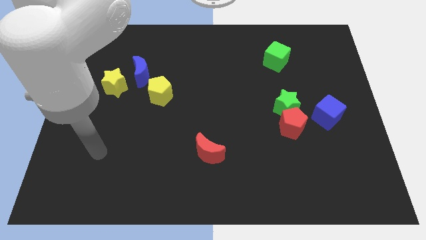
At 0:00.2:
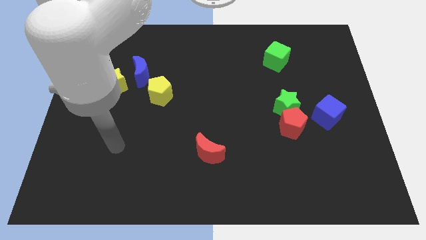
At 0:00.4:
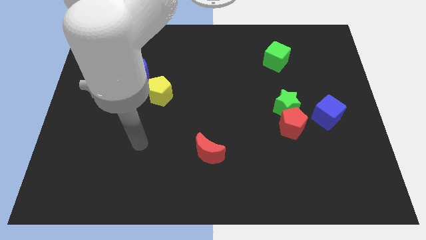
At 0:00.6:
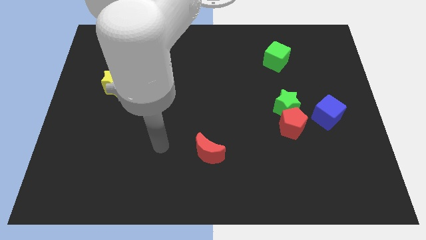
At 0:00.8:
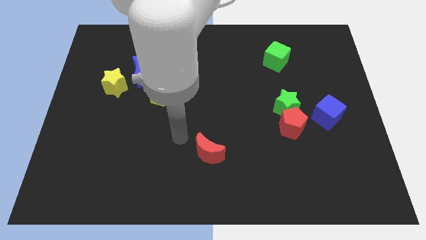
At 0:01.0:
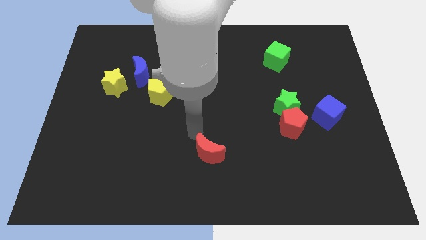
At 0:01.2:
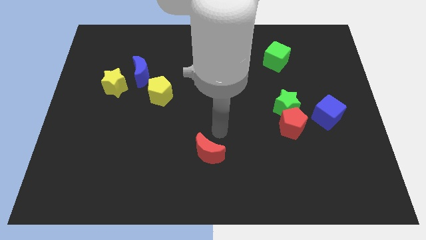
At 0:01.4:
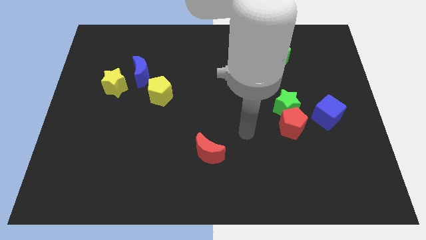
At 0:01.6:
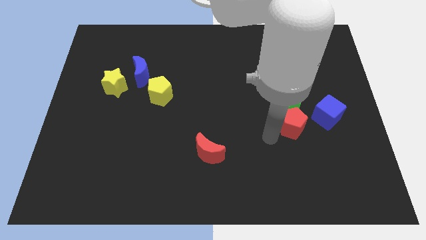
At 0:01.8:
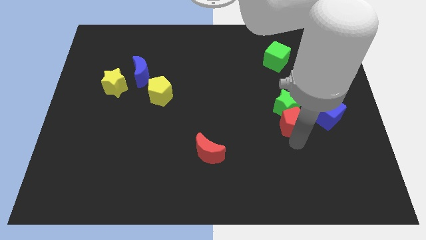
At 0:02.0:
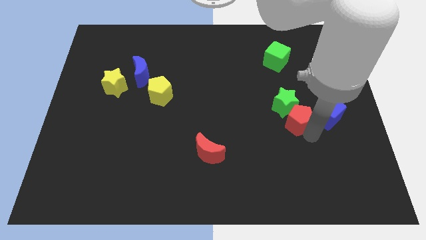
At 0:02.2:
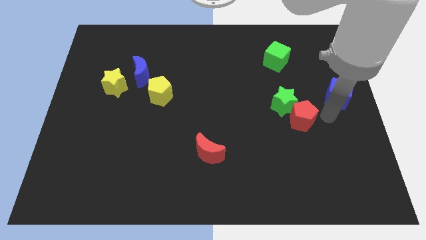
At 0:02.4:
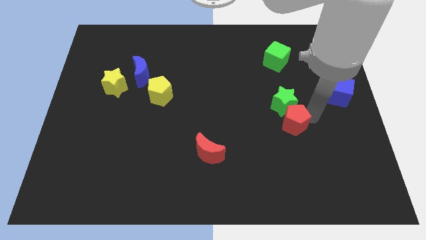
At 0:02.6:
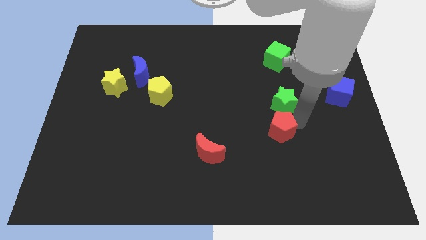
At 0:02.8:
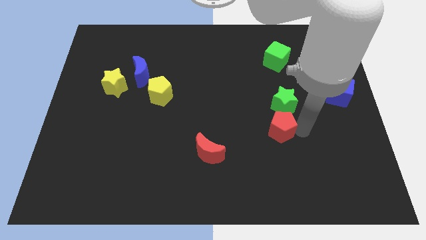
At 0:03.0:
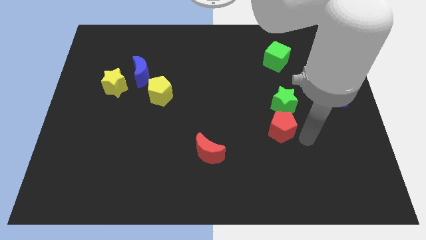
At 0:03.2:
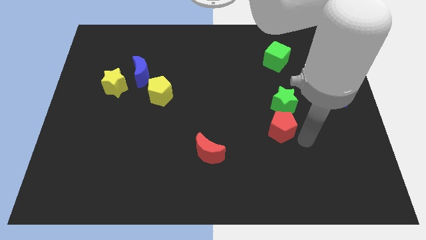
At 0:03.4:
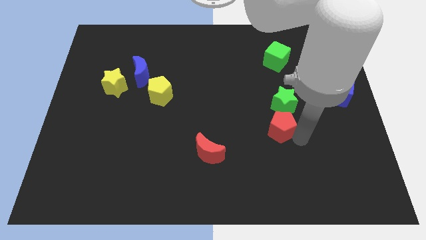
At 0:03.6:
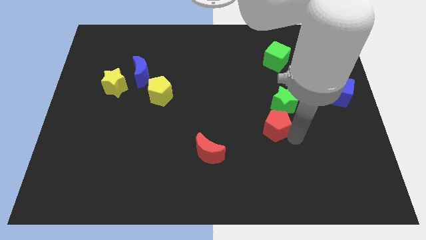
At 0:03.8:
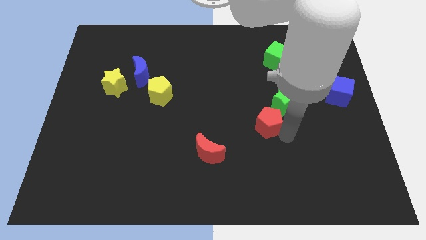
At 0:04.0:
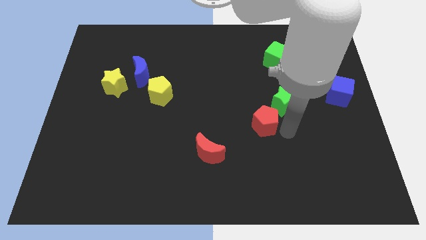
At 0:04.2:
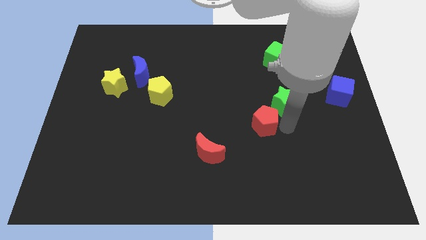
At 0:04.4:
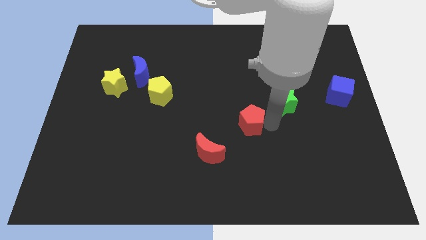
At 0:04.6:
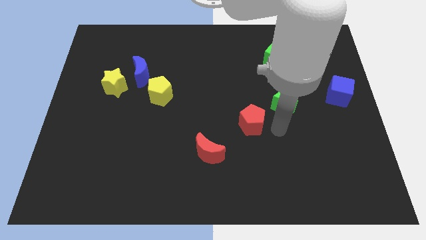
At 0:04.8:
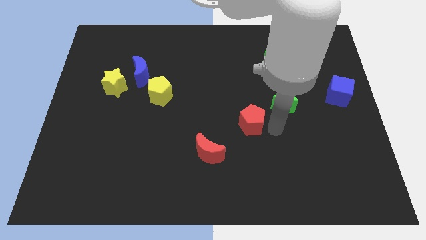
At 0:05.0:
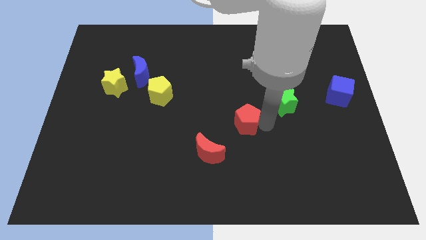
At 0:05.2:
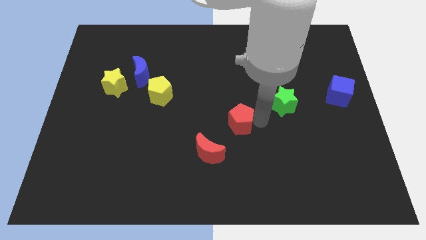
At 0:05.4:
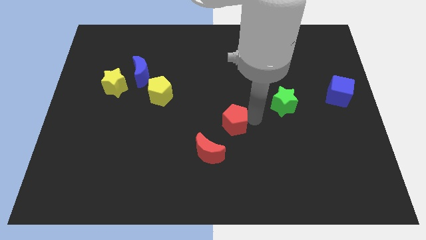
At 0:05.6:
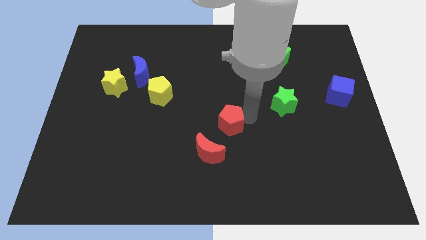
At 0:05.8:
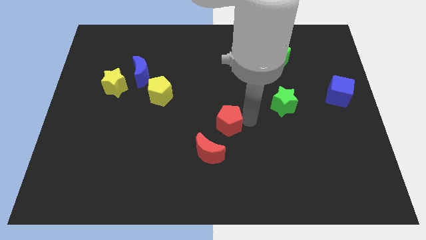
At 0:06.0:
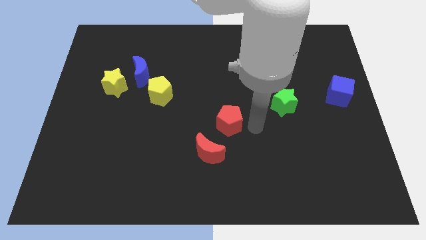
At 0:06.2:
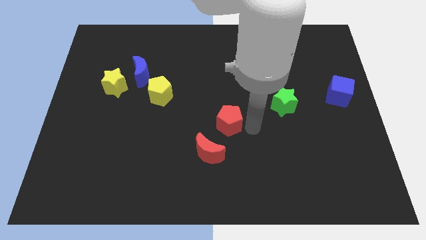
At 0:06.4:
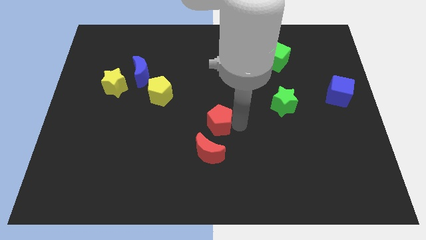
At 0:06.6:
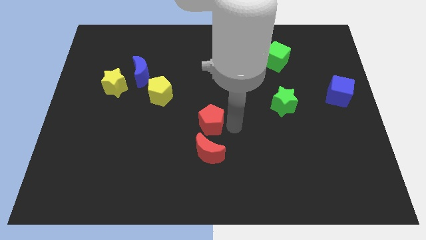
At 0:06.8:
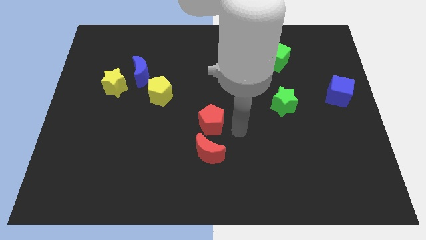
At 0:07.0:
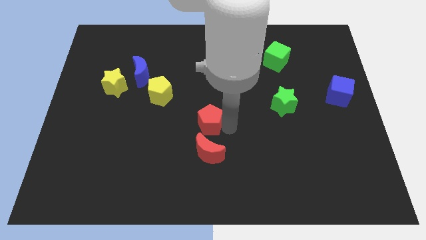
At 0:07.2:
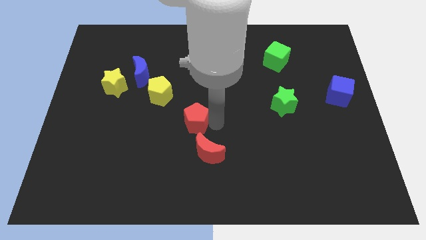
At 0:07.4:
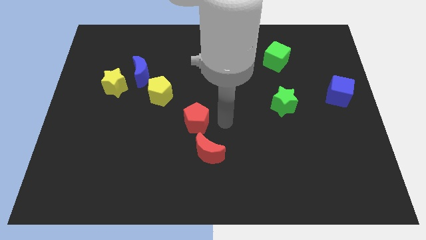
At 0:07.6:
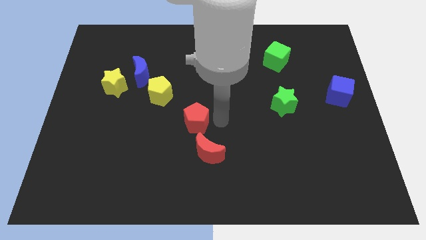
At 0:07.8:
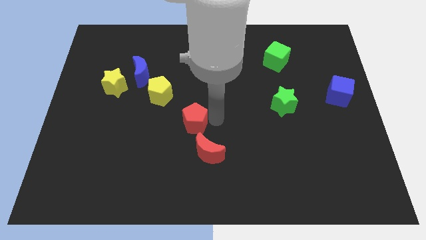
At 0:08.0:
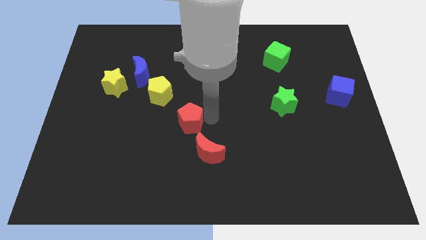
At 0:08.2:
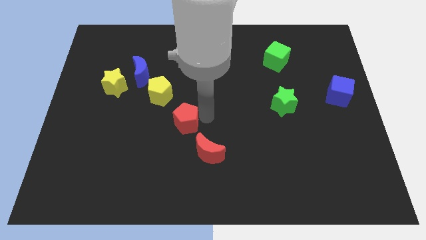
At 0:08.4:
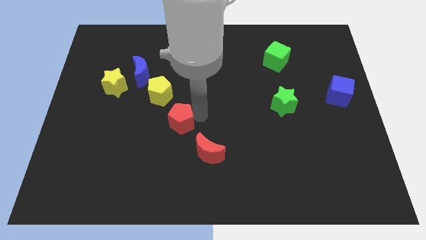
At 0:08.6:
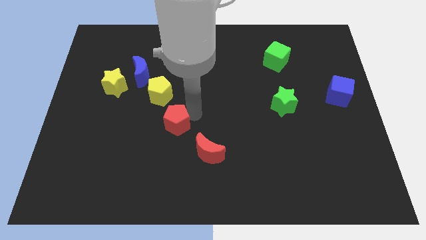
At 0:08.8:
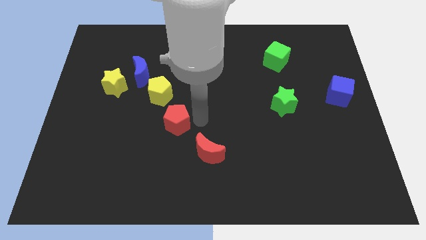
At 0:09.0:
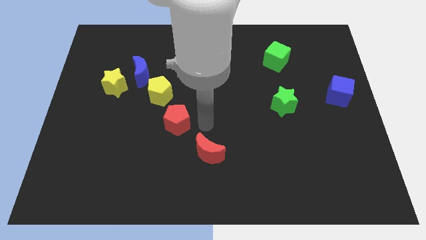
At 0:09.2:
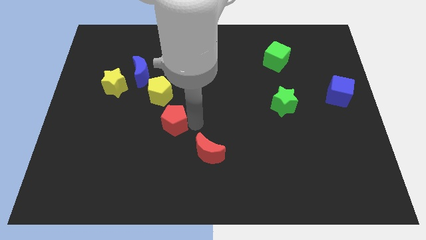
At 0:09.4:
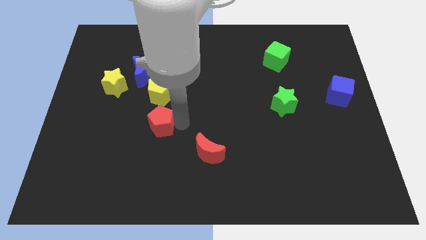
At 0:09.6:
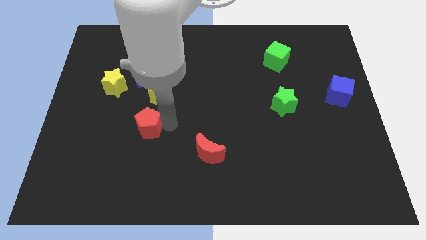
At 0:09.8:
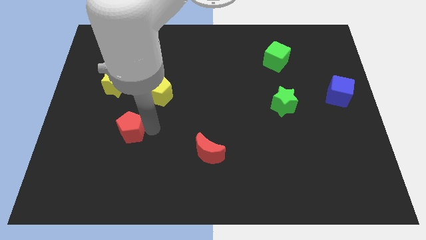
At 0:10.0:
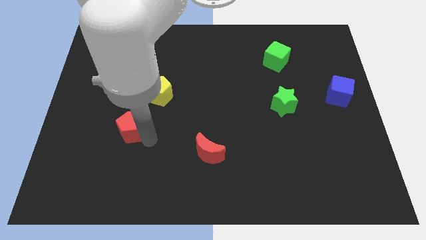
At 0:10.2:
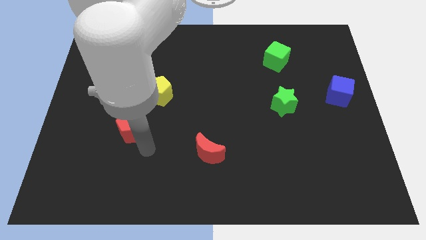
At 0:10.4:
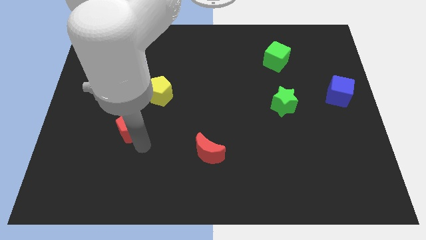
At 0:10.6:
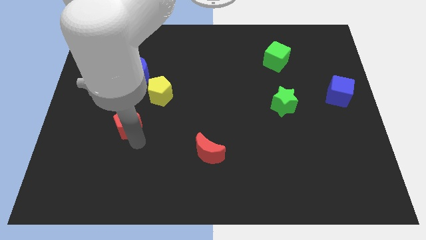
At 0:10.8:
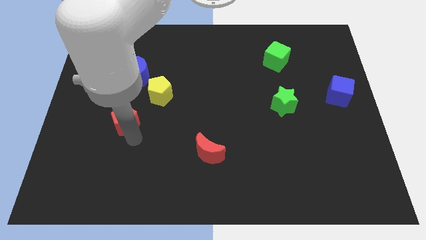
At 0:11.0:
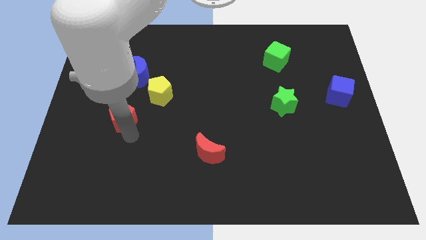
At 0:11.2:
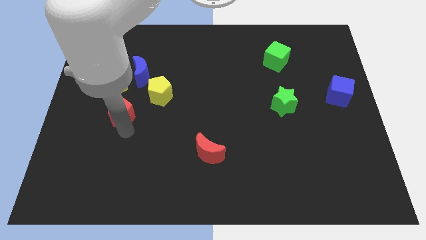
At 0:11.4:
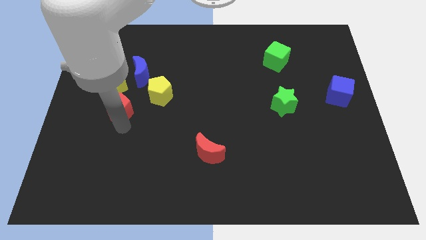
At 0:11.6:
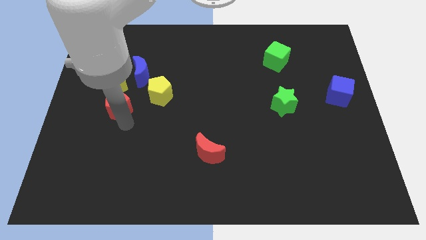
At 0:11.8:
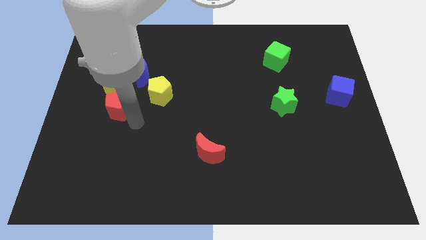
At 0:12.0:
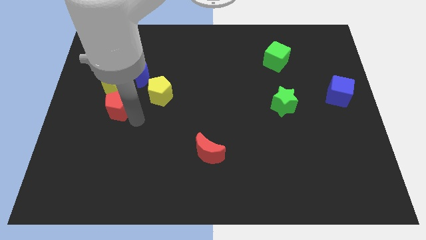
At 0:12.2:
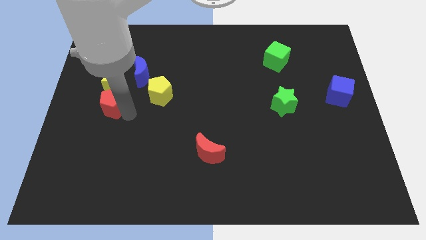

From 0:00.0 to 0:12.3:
slide the red pentagon to the bottom left side of the blue moon
